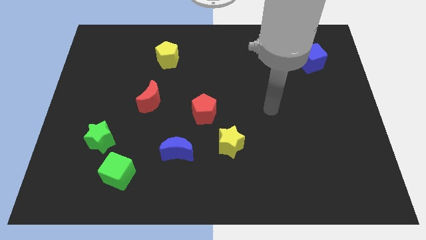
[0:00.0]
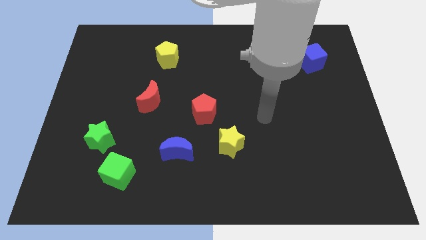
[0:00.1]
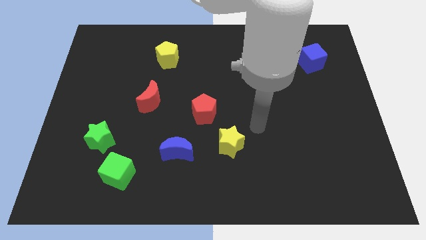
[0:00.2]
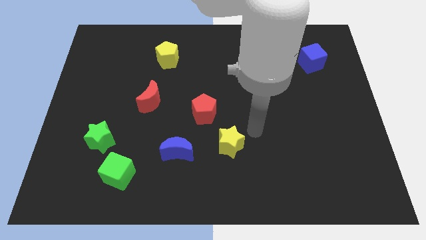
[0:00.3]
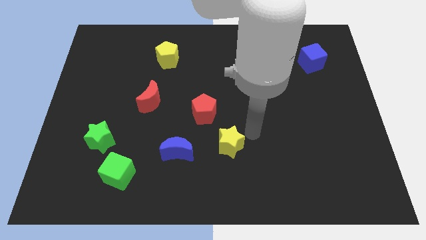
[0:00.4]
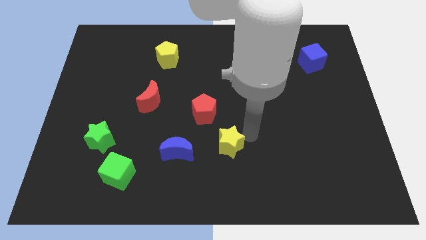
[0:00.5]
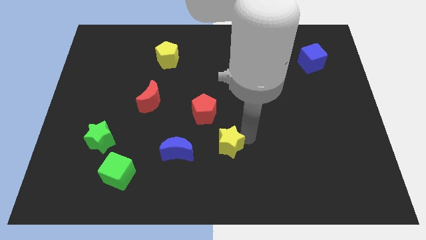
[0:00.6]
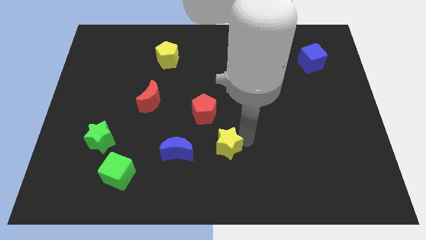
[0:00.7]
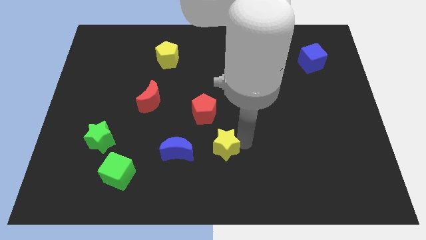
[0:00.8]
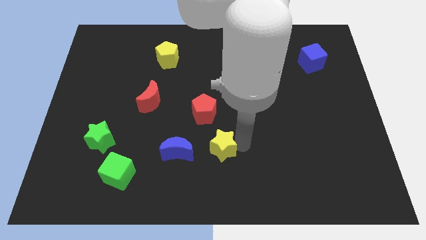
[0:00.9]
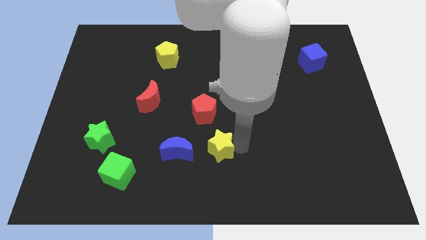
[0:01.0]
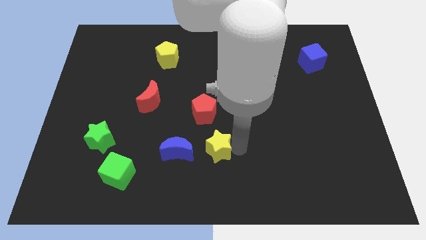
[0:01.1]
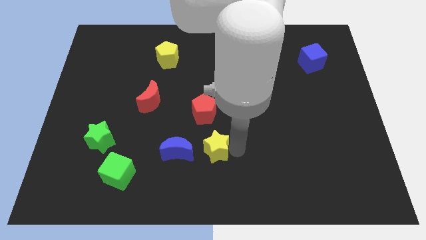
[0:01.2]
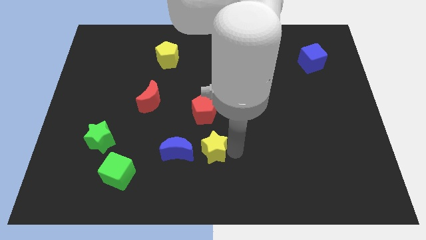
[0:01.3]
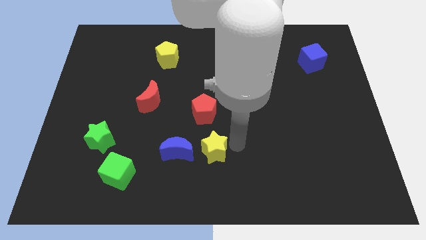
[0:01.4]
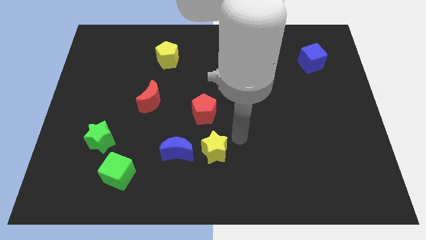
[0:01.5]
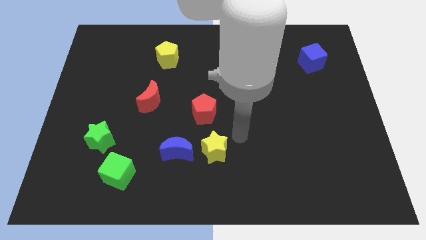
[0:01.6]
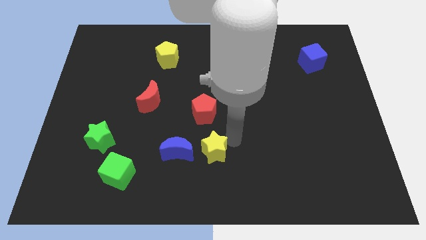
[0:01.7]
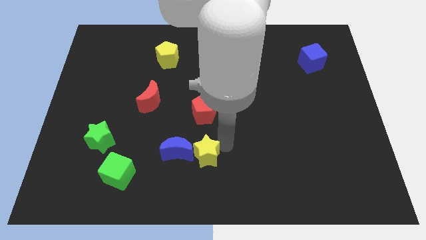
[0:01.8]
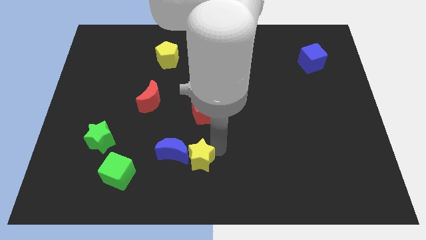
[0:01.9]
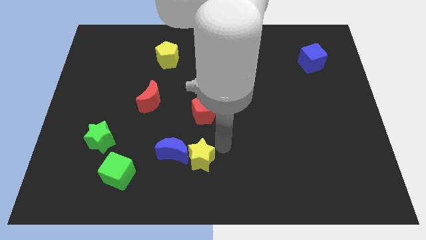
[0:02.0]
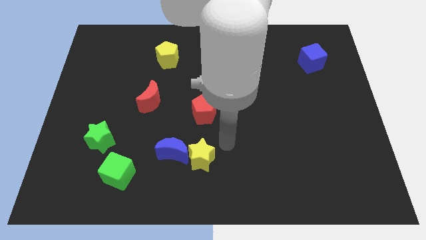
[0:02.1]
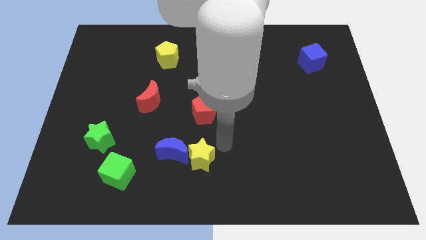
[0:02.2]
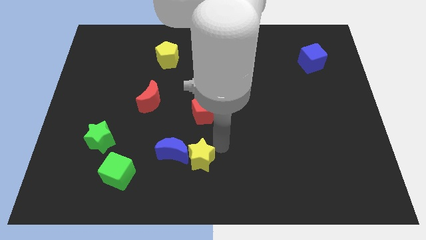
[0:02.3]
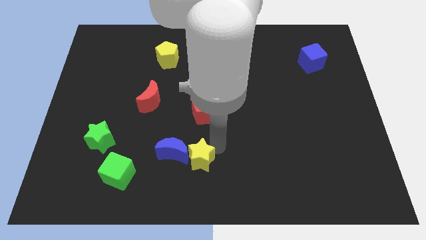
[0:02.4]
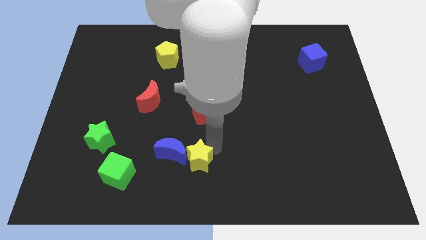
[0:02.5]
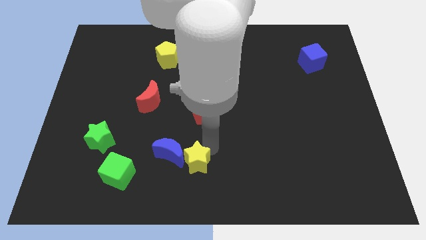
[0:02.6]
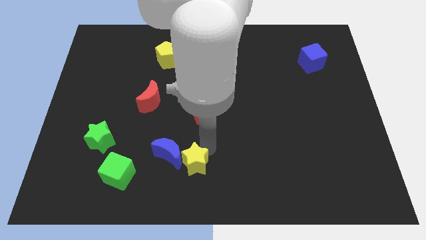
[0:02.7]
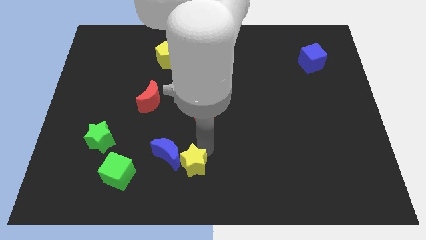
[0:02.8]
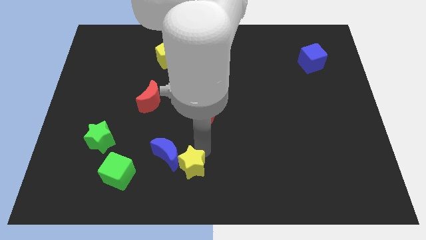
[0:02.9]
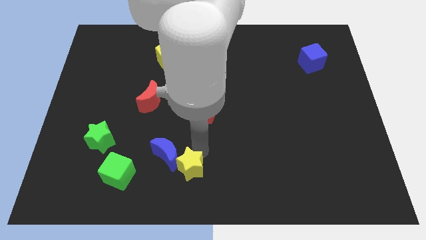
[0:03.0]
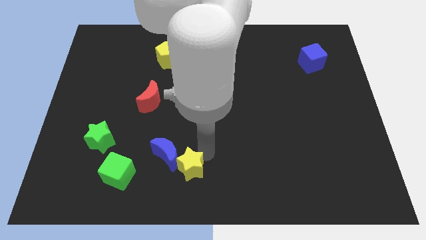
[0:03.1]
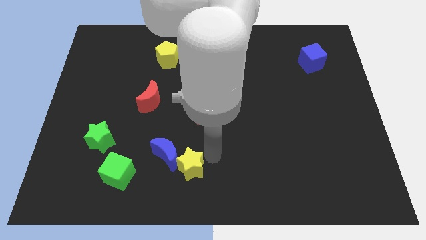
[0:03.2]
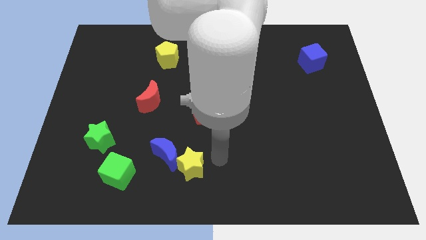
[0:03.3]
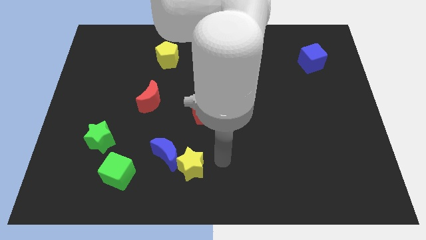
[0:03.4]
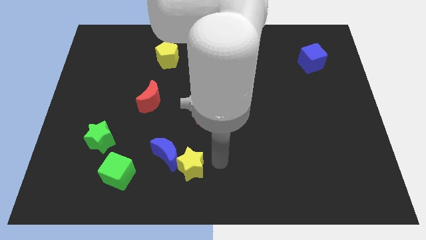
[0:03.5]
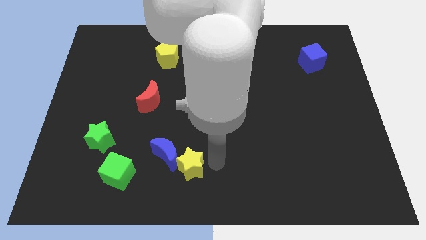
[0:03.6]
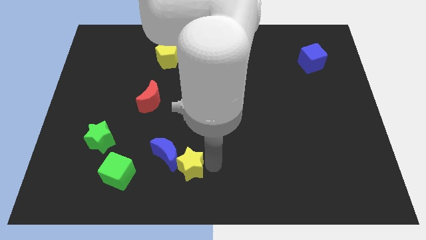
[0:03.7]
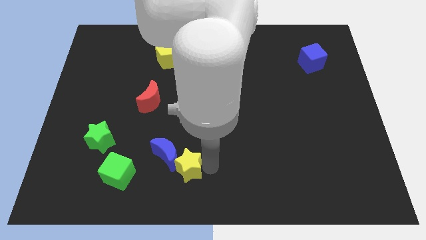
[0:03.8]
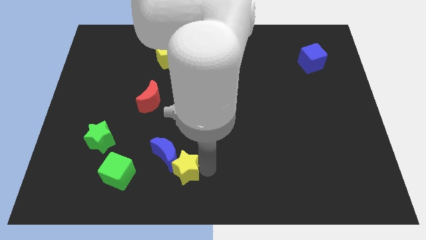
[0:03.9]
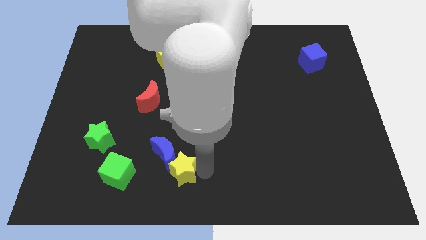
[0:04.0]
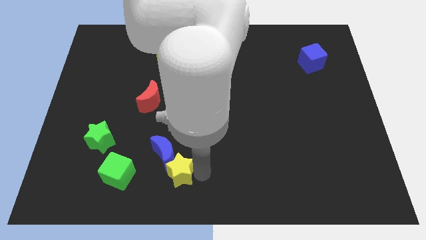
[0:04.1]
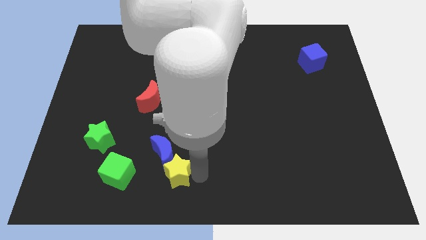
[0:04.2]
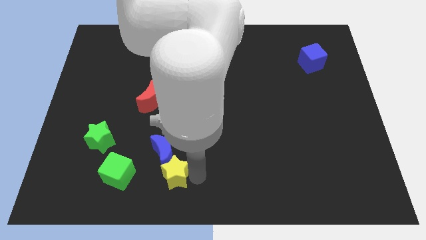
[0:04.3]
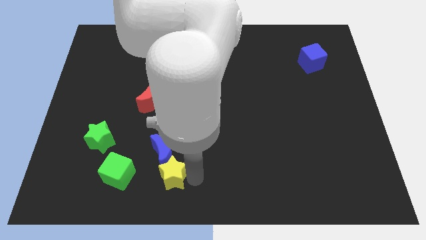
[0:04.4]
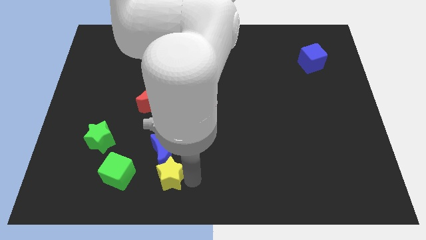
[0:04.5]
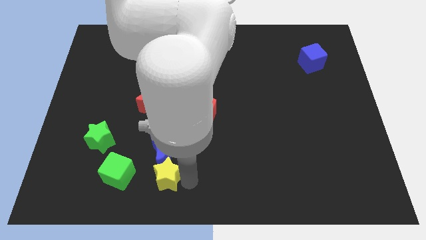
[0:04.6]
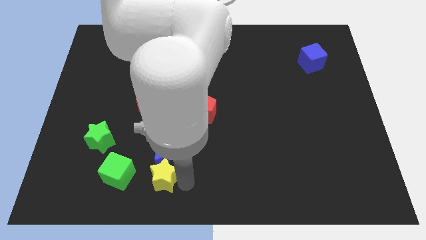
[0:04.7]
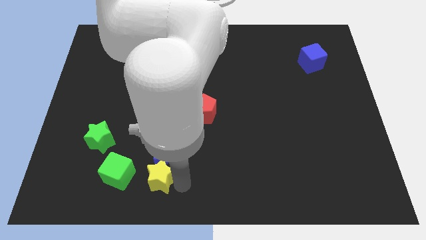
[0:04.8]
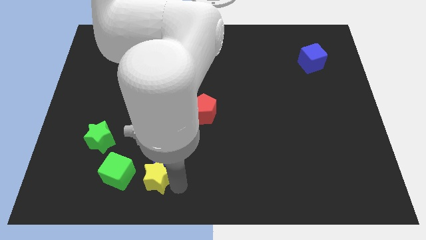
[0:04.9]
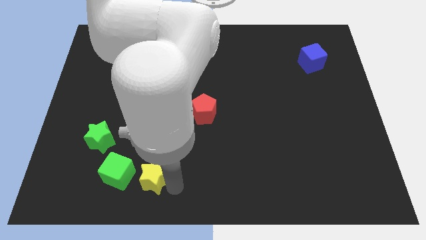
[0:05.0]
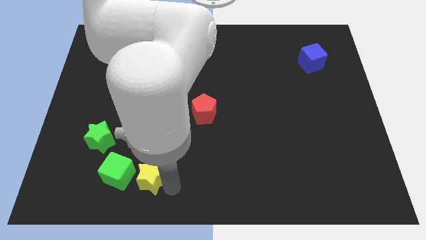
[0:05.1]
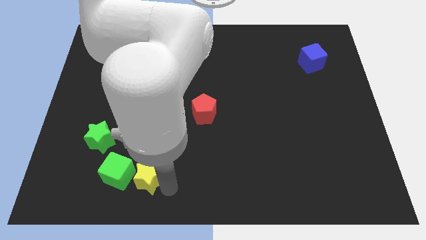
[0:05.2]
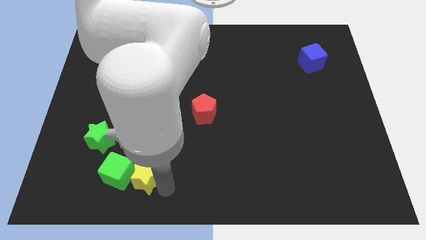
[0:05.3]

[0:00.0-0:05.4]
slide the yellow star close to the green cube

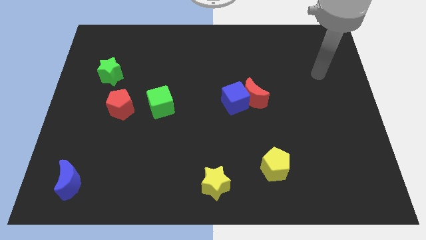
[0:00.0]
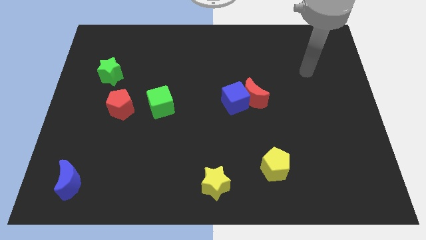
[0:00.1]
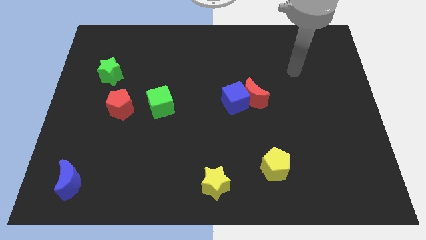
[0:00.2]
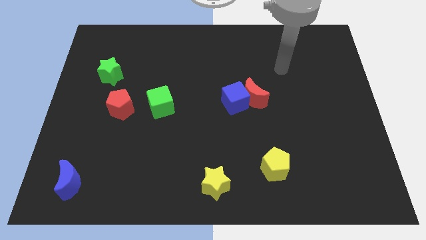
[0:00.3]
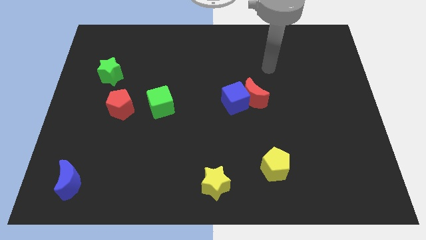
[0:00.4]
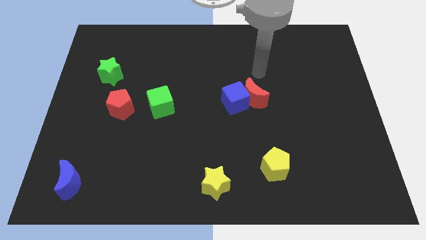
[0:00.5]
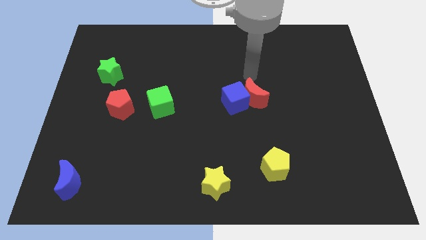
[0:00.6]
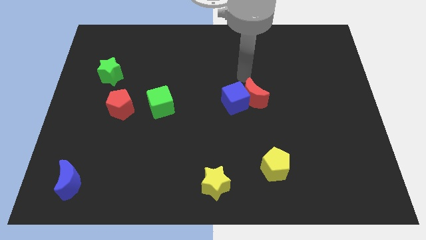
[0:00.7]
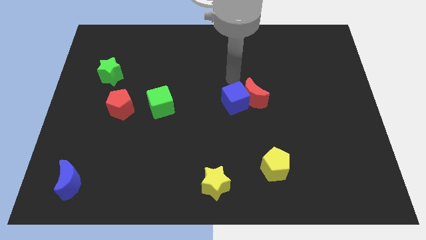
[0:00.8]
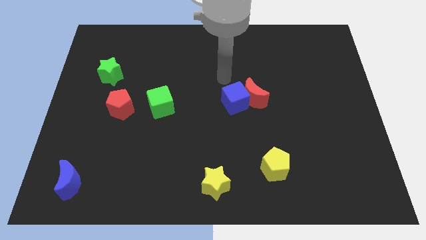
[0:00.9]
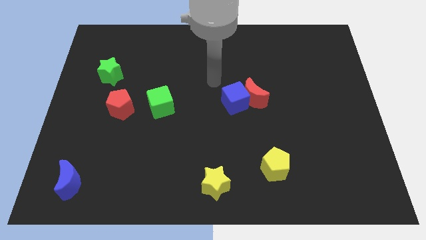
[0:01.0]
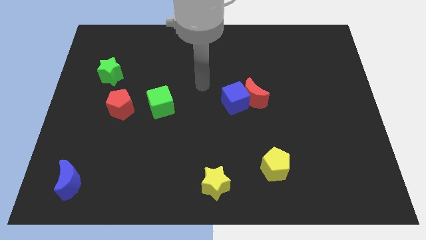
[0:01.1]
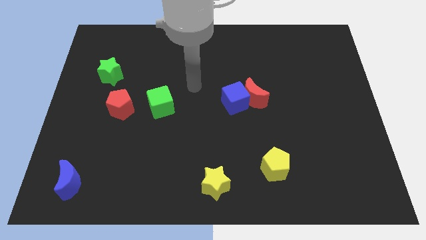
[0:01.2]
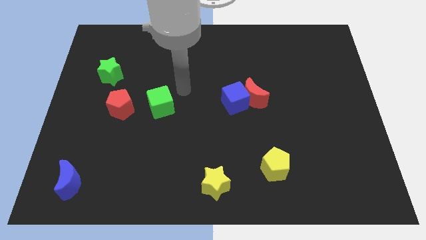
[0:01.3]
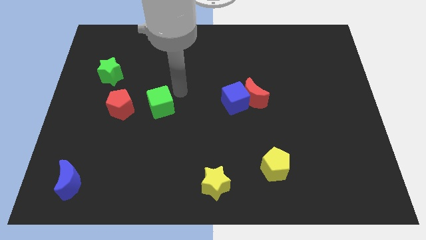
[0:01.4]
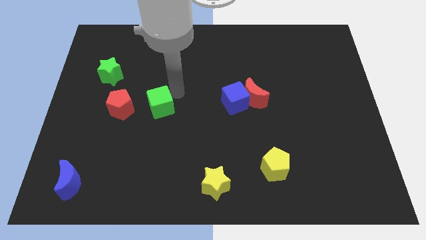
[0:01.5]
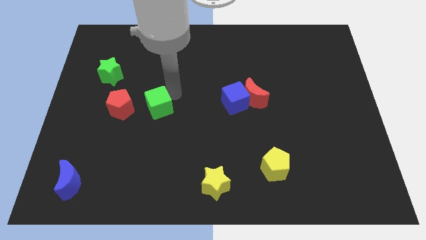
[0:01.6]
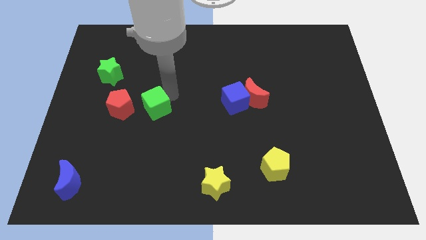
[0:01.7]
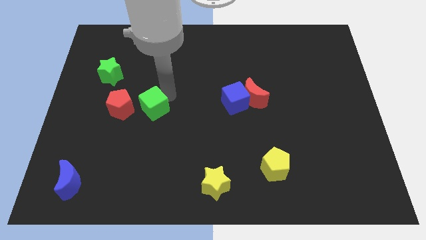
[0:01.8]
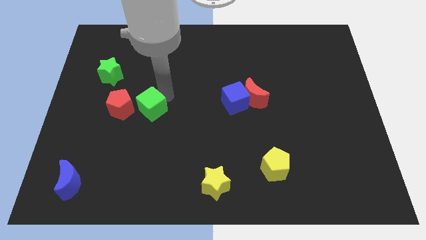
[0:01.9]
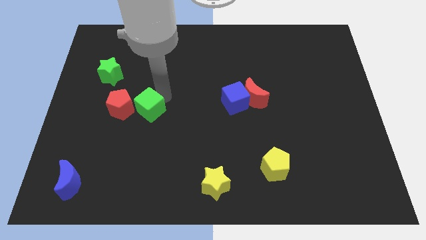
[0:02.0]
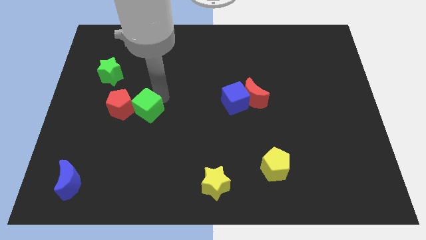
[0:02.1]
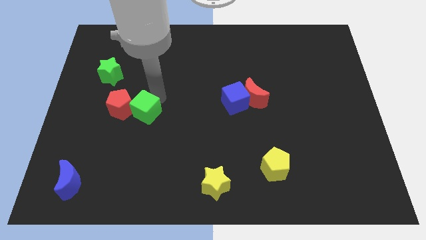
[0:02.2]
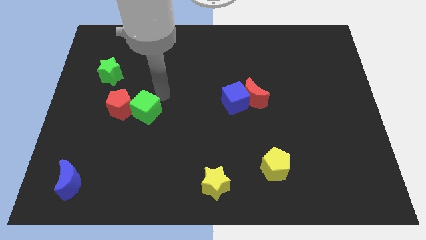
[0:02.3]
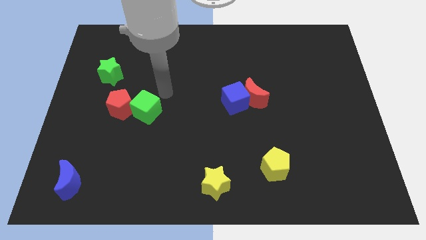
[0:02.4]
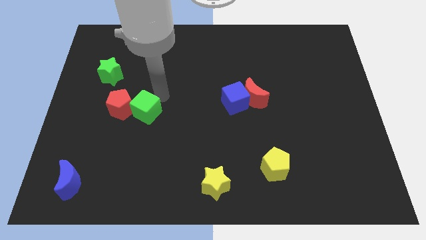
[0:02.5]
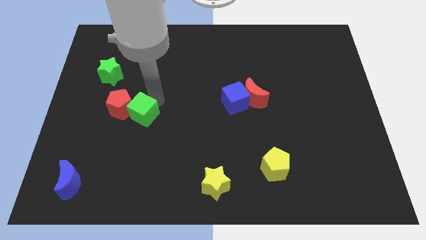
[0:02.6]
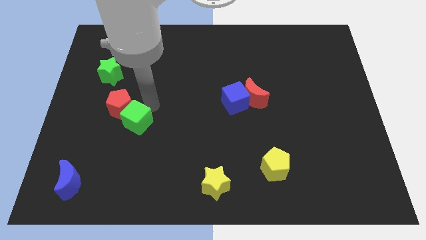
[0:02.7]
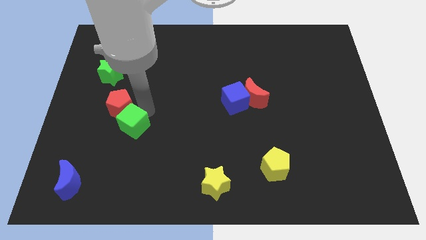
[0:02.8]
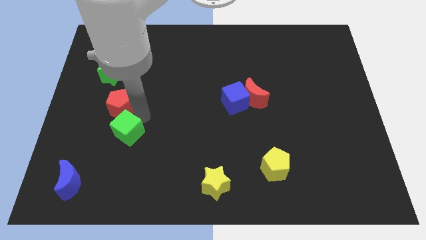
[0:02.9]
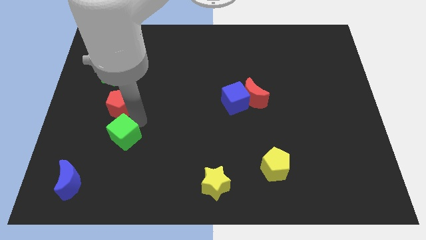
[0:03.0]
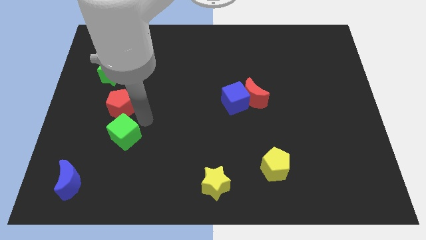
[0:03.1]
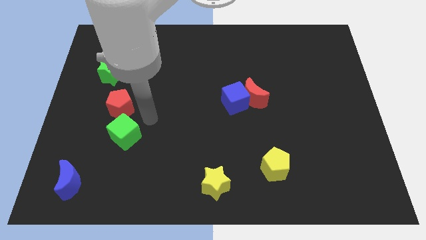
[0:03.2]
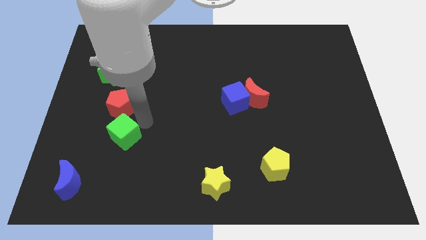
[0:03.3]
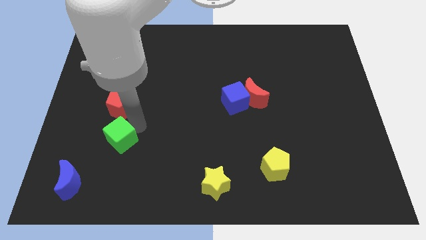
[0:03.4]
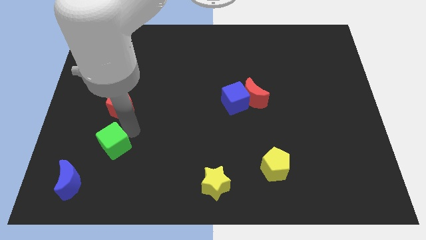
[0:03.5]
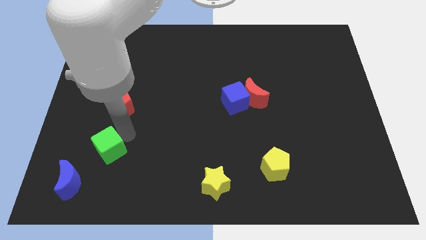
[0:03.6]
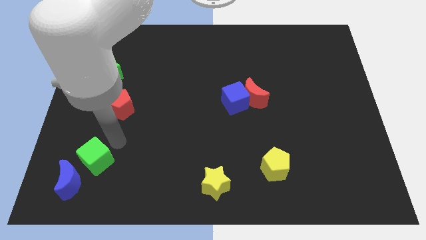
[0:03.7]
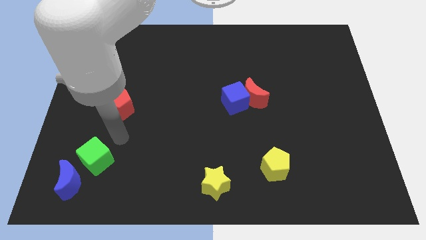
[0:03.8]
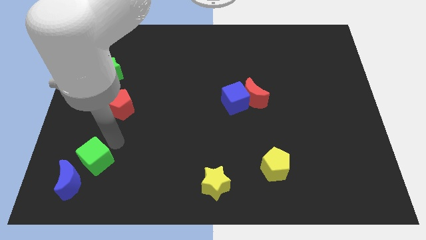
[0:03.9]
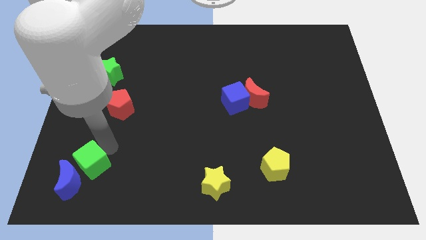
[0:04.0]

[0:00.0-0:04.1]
put the green cube next to the blue moon
